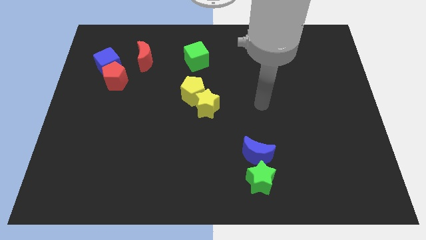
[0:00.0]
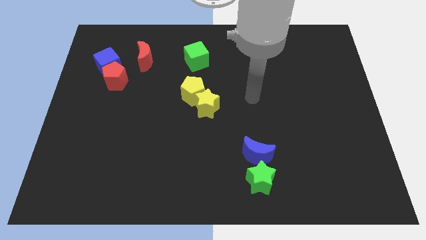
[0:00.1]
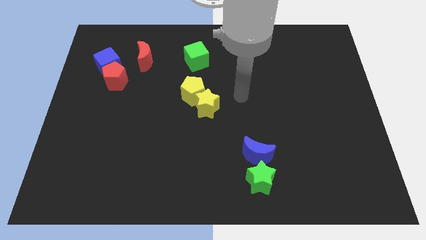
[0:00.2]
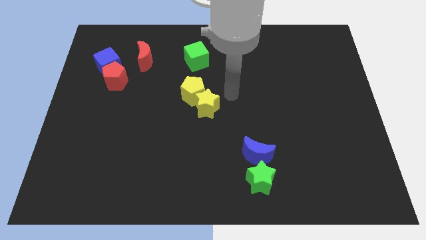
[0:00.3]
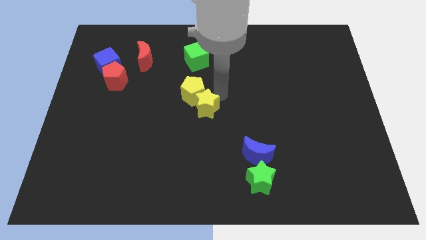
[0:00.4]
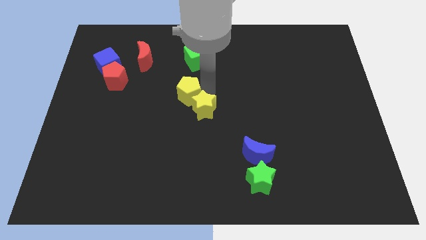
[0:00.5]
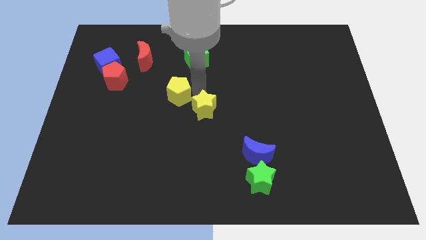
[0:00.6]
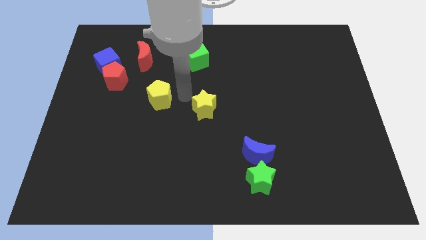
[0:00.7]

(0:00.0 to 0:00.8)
move the yellow star away from the yellow pentagon

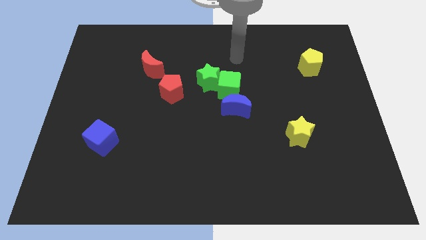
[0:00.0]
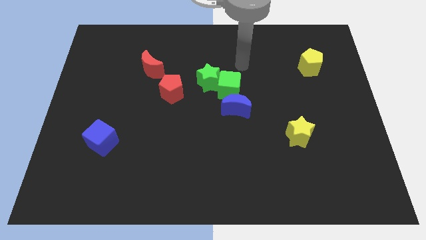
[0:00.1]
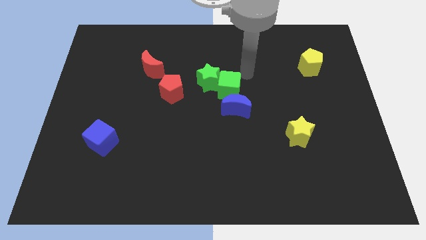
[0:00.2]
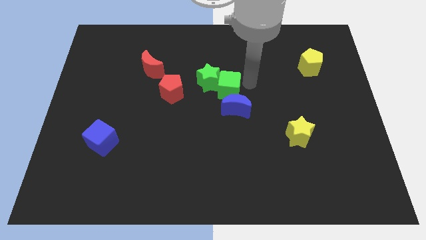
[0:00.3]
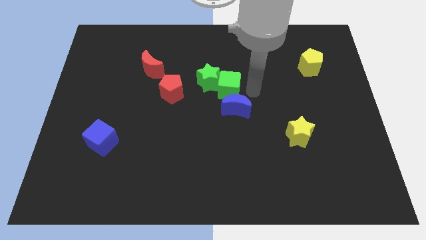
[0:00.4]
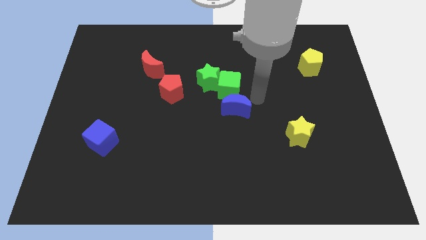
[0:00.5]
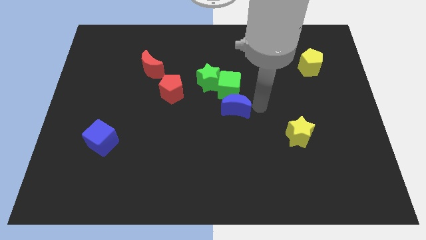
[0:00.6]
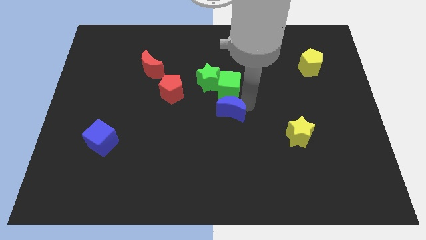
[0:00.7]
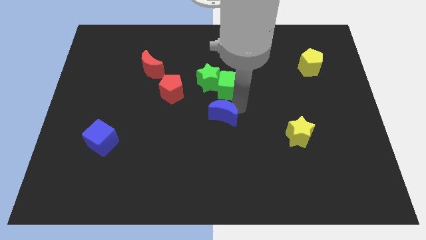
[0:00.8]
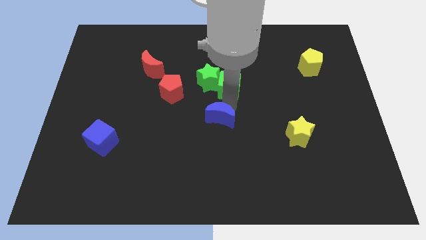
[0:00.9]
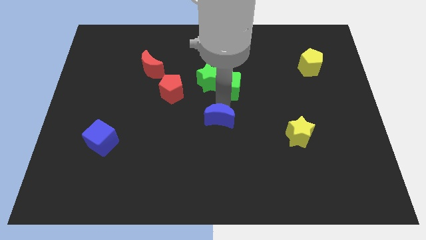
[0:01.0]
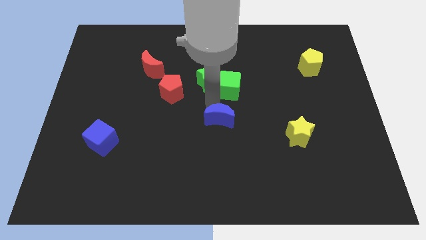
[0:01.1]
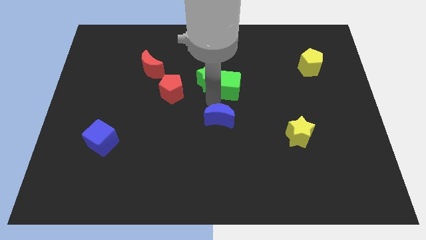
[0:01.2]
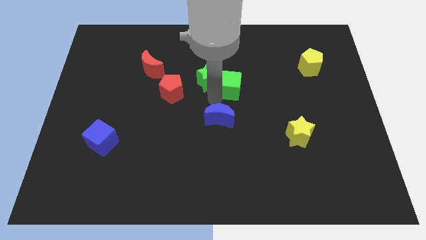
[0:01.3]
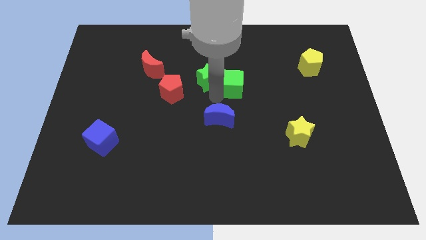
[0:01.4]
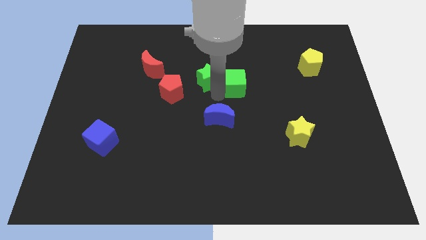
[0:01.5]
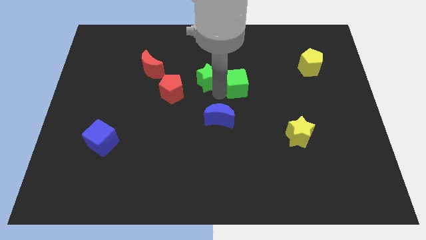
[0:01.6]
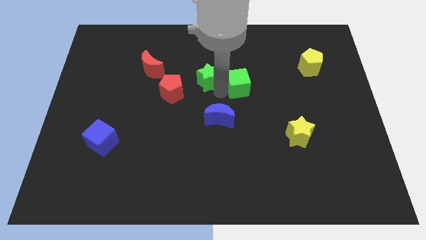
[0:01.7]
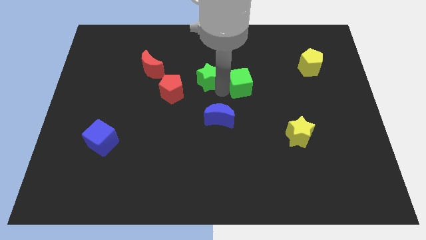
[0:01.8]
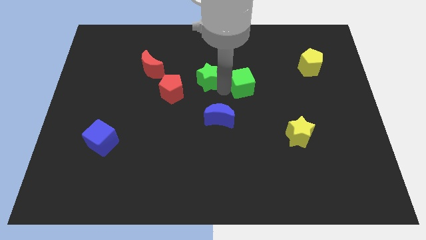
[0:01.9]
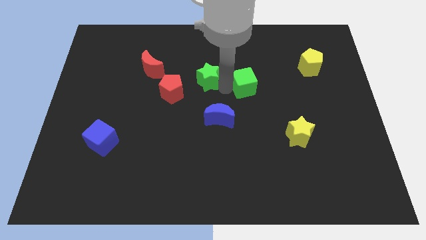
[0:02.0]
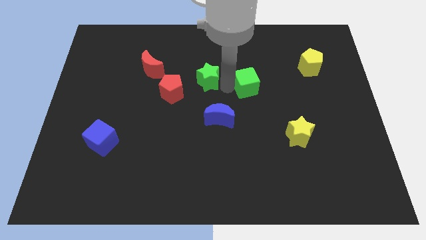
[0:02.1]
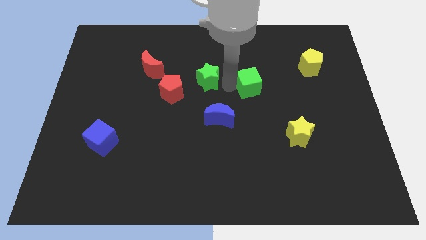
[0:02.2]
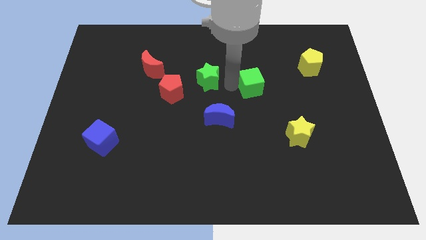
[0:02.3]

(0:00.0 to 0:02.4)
pull the green cube apart from the green star and blue moon

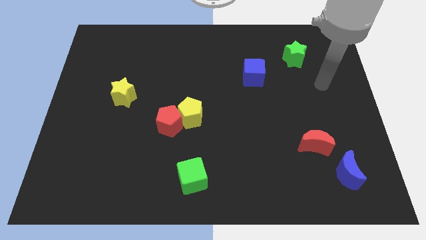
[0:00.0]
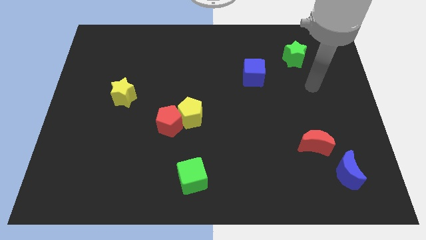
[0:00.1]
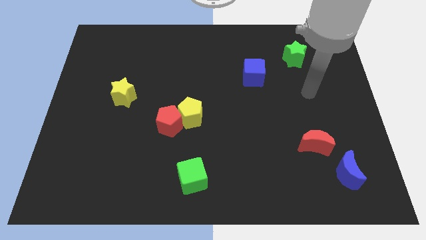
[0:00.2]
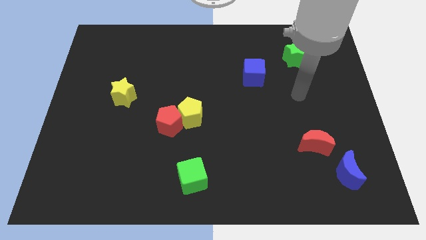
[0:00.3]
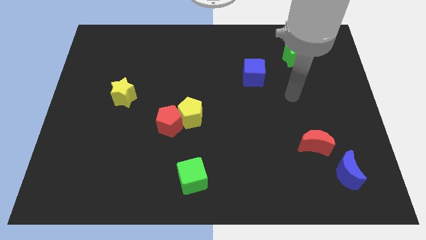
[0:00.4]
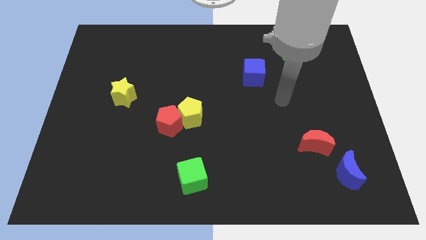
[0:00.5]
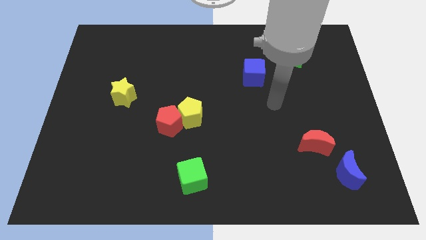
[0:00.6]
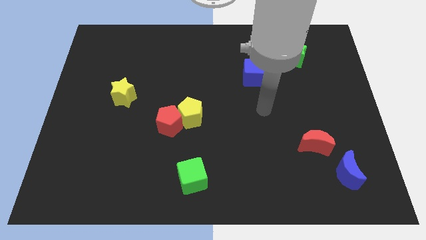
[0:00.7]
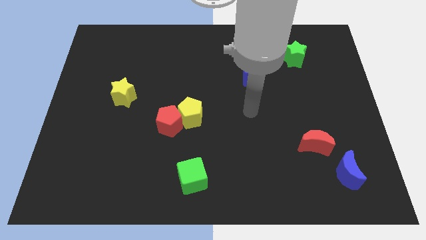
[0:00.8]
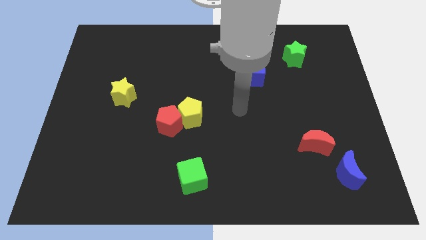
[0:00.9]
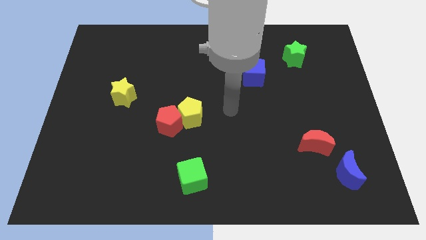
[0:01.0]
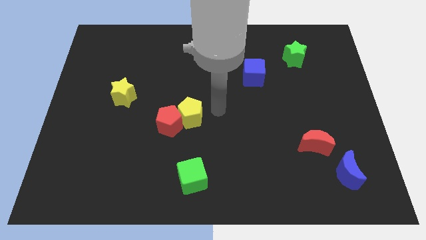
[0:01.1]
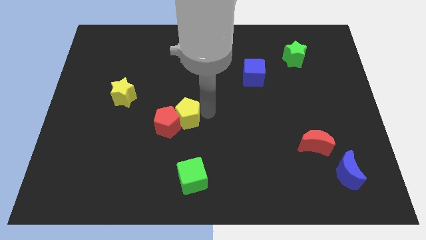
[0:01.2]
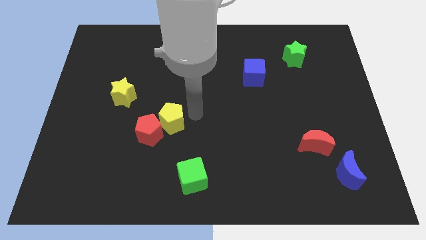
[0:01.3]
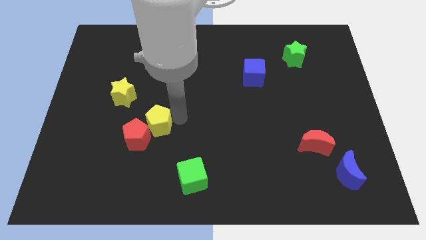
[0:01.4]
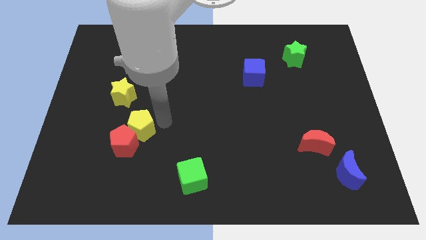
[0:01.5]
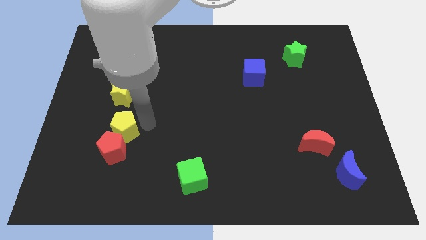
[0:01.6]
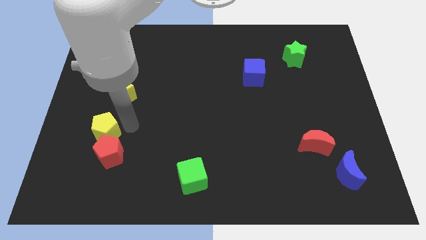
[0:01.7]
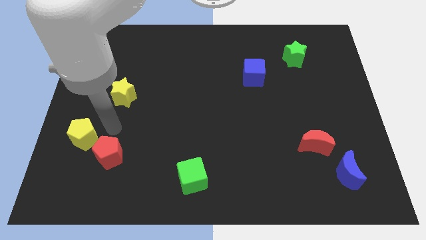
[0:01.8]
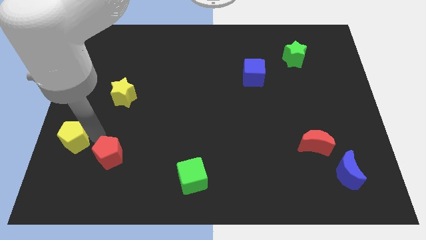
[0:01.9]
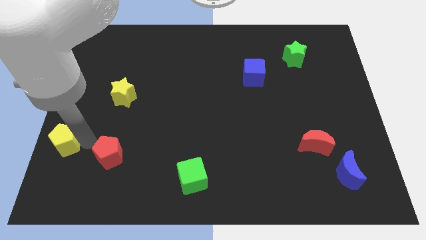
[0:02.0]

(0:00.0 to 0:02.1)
separate the red pentagon from the yellow pentagon

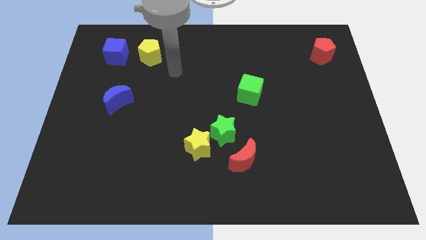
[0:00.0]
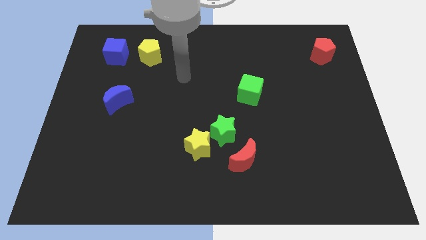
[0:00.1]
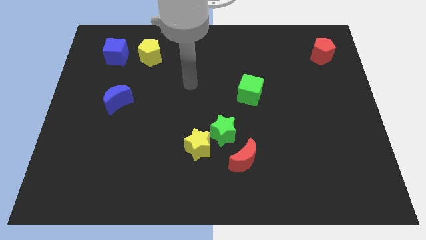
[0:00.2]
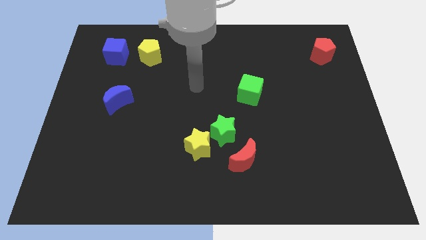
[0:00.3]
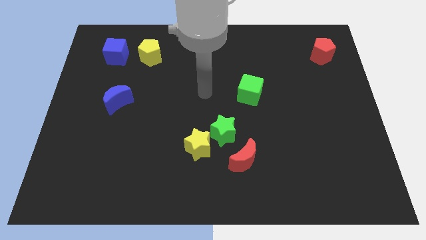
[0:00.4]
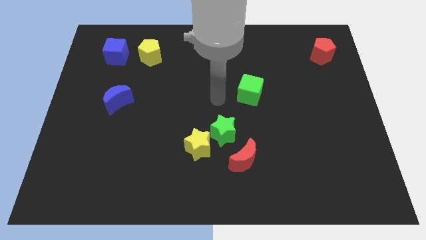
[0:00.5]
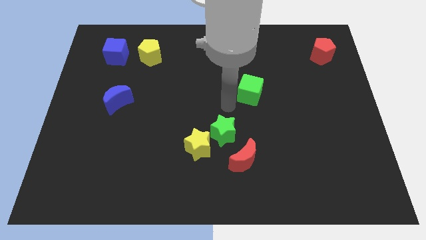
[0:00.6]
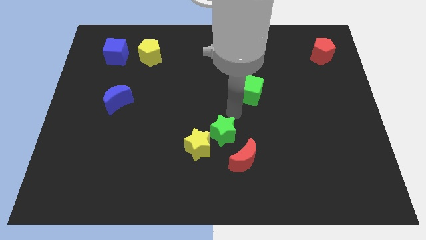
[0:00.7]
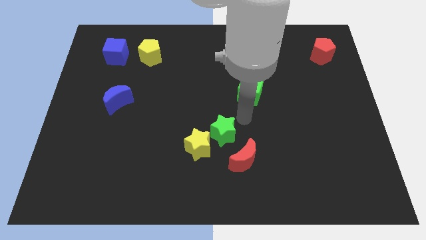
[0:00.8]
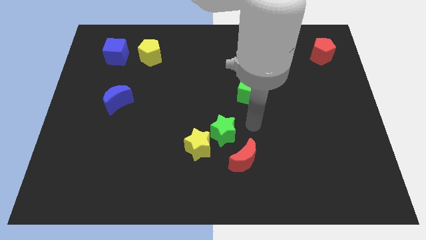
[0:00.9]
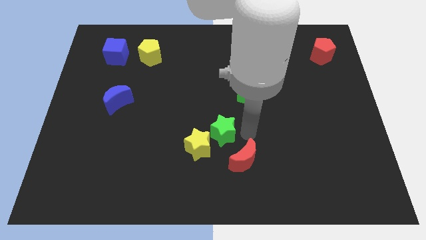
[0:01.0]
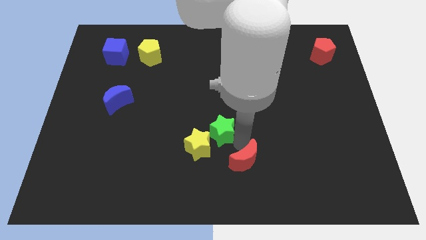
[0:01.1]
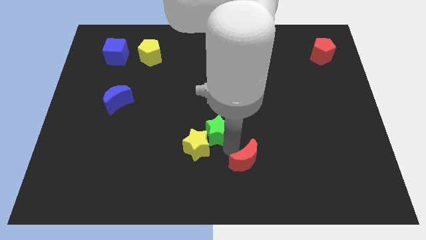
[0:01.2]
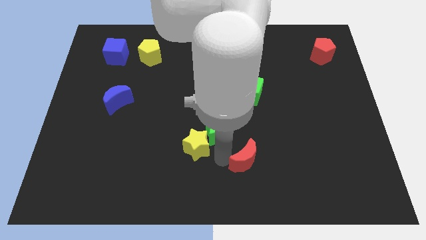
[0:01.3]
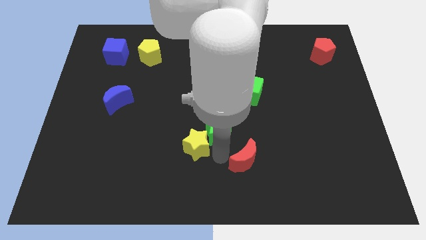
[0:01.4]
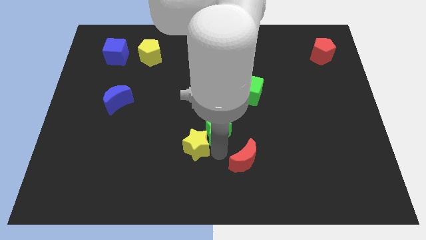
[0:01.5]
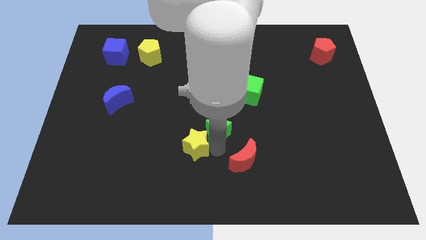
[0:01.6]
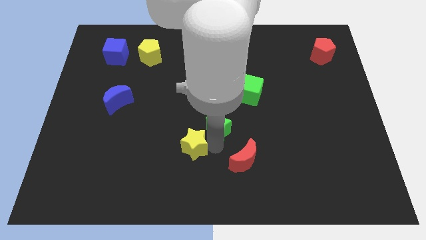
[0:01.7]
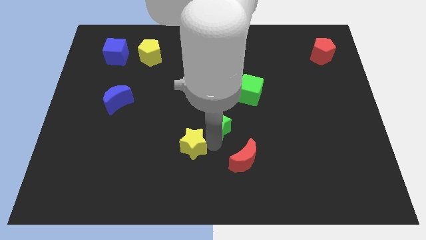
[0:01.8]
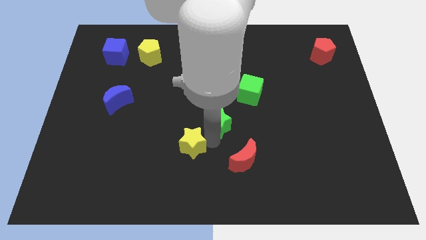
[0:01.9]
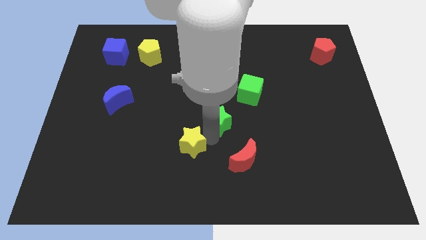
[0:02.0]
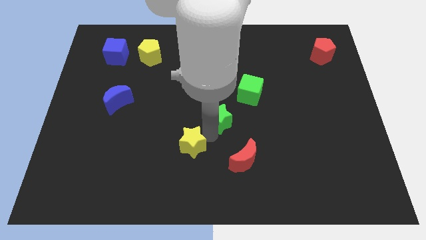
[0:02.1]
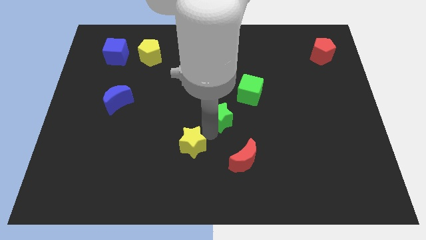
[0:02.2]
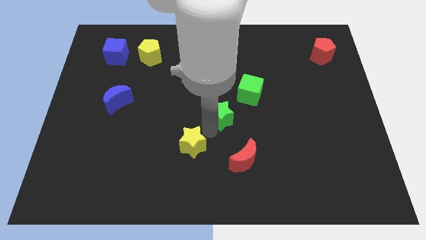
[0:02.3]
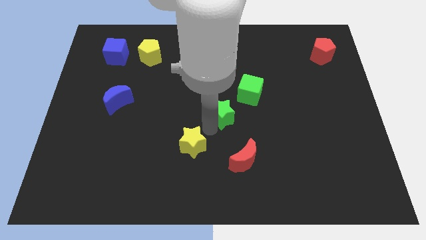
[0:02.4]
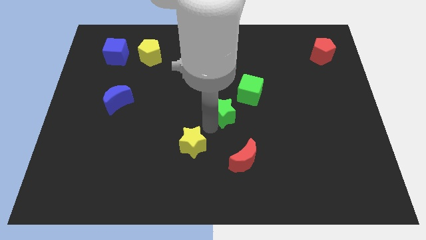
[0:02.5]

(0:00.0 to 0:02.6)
move the green star away from the yellow star and red moon

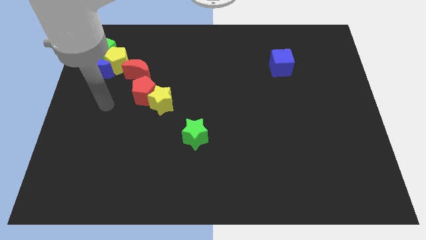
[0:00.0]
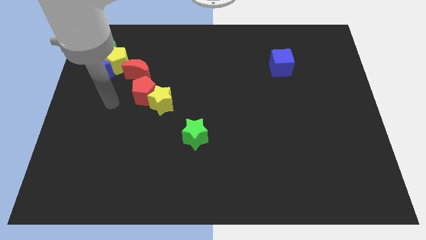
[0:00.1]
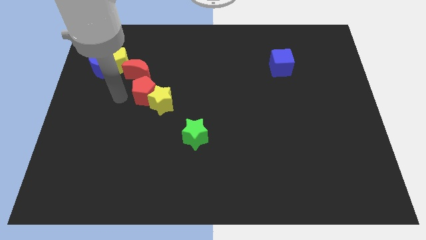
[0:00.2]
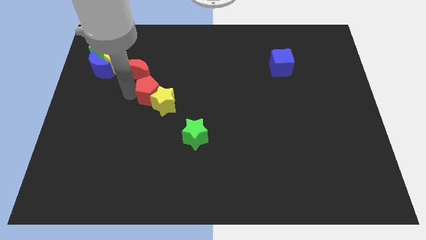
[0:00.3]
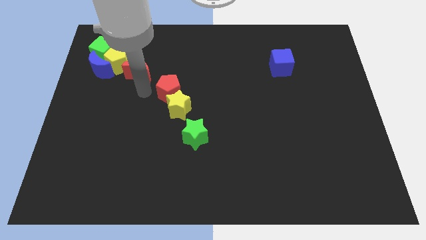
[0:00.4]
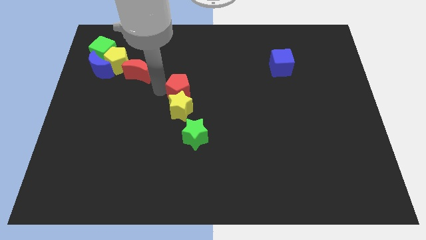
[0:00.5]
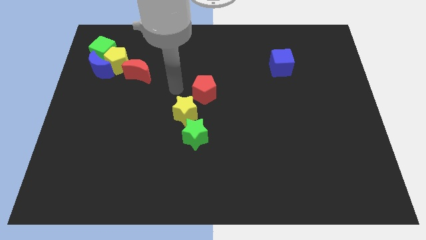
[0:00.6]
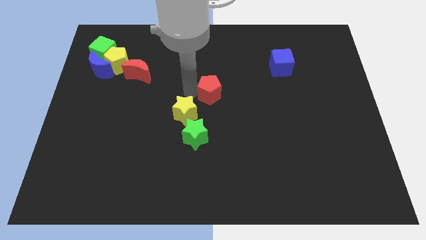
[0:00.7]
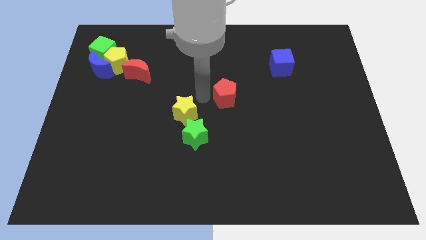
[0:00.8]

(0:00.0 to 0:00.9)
pull the yellow star apart from the red pentagon

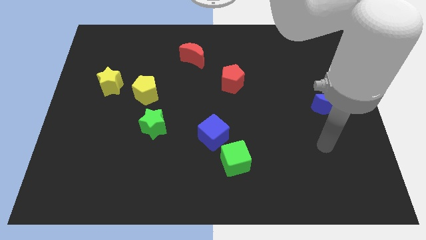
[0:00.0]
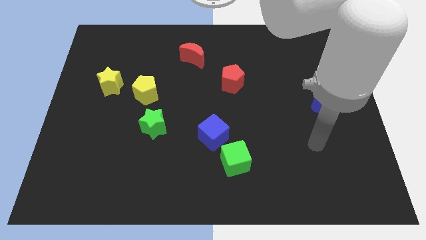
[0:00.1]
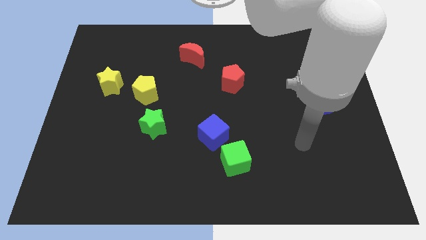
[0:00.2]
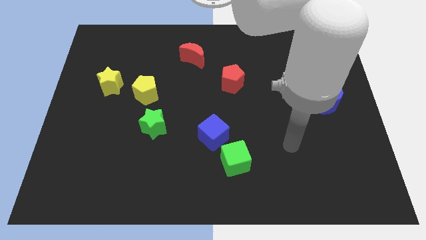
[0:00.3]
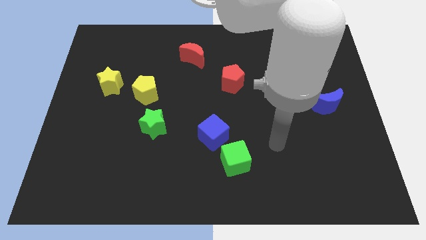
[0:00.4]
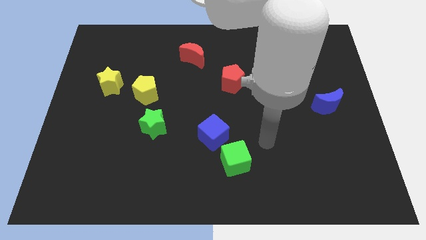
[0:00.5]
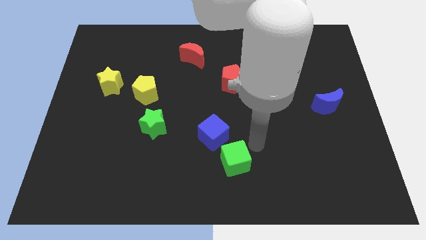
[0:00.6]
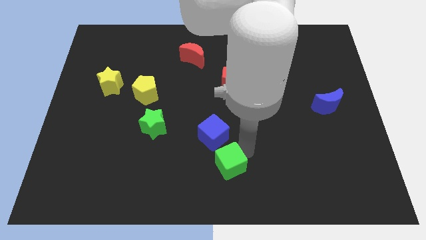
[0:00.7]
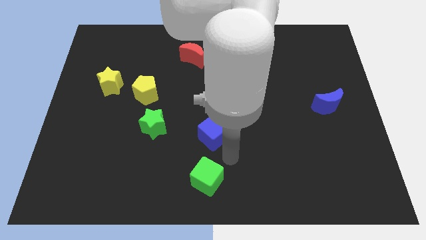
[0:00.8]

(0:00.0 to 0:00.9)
move the blue cube away from the green cube
